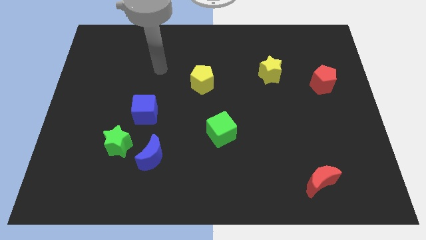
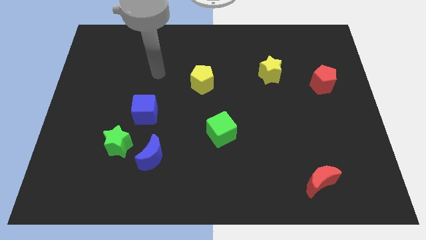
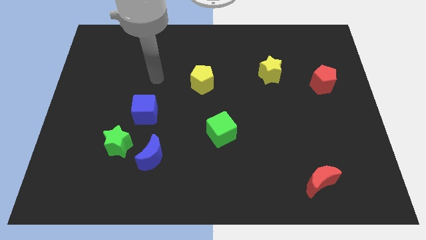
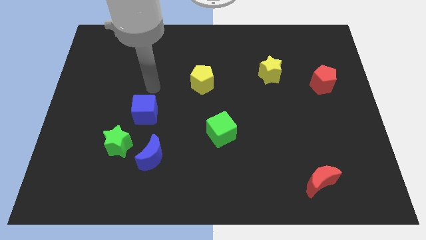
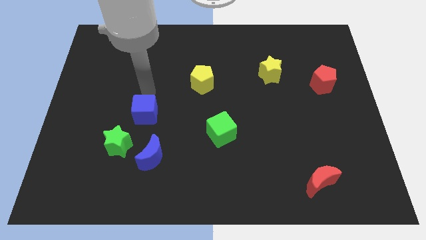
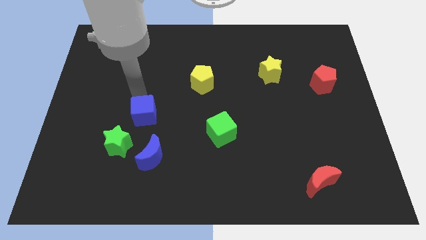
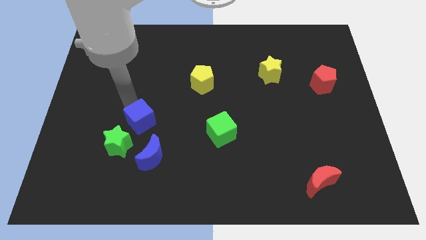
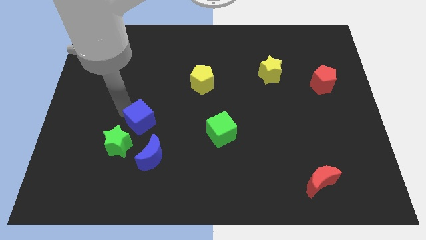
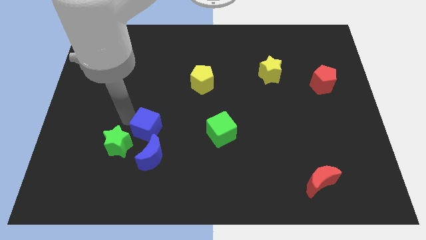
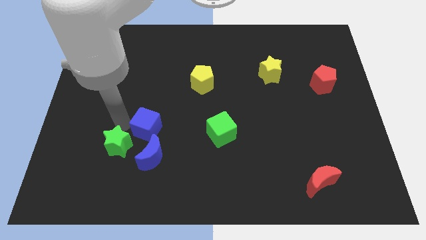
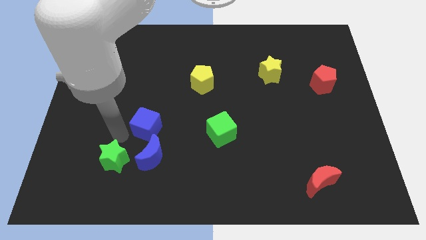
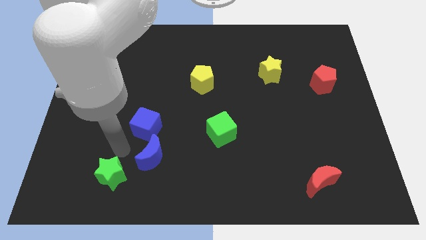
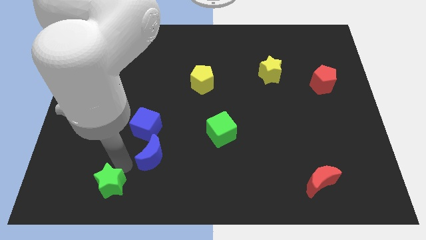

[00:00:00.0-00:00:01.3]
separate the blue moon from the green star

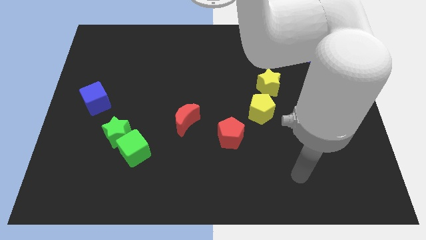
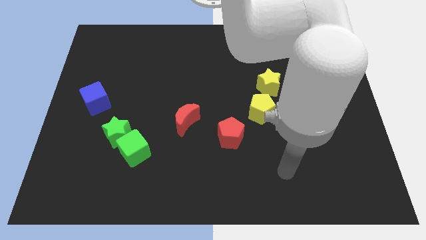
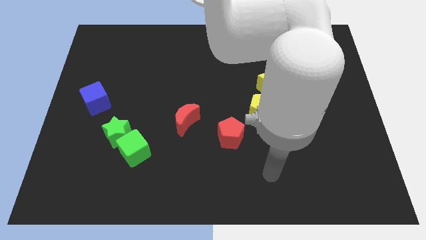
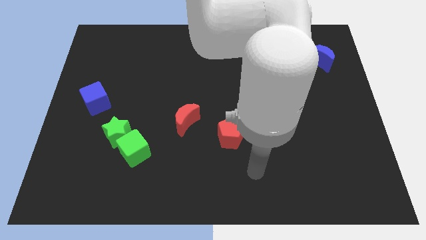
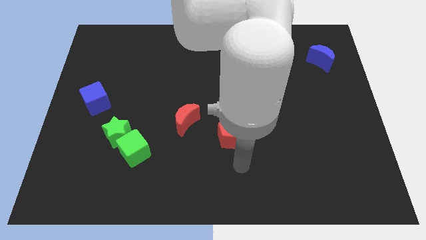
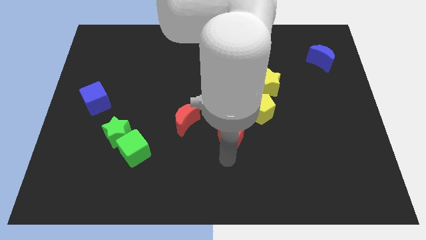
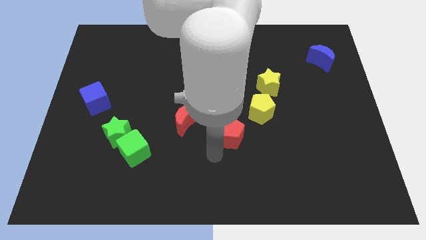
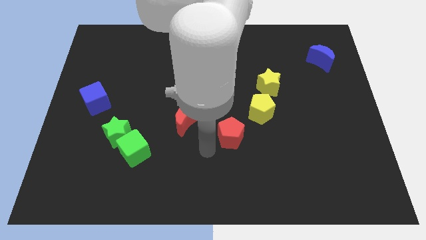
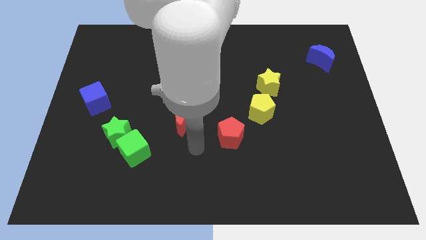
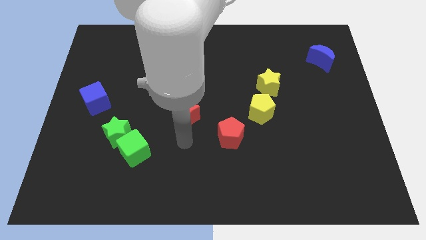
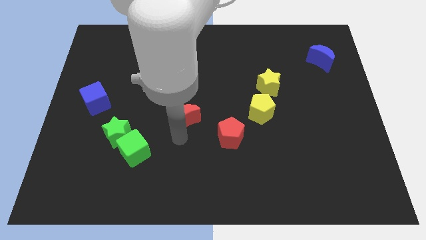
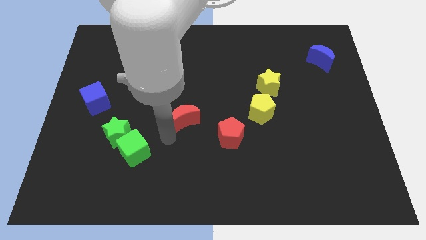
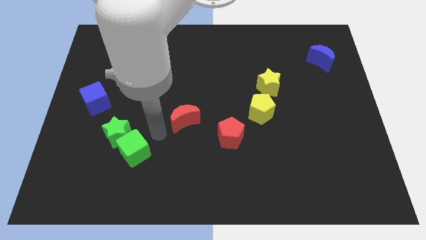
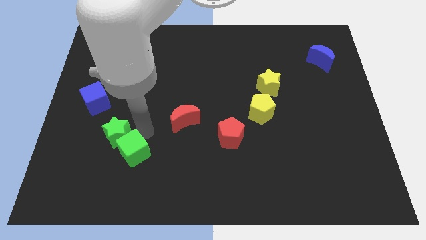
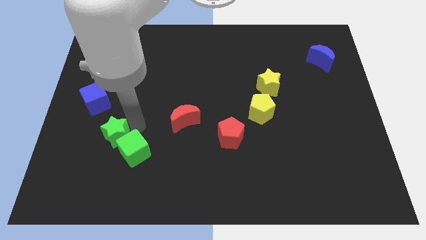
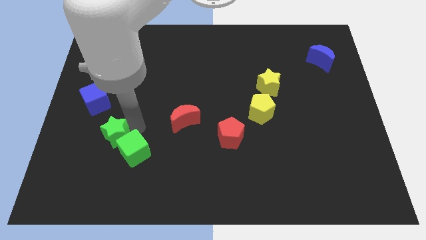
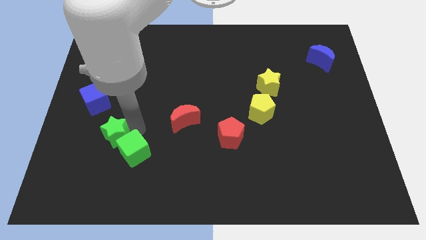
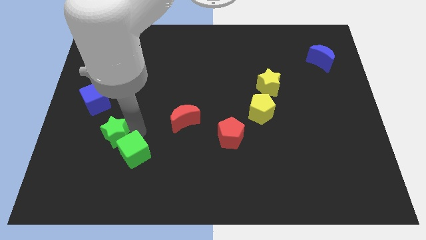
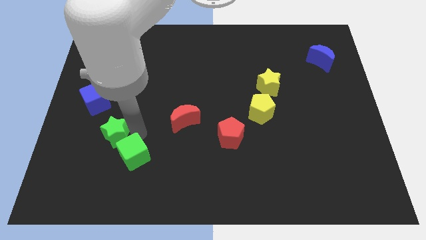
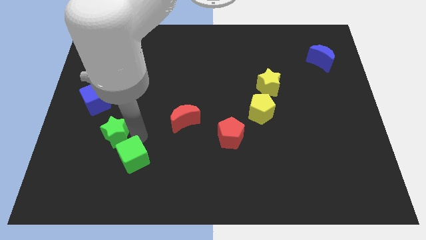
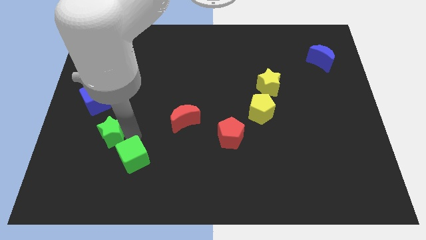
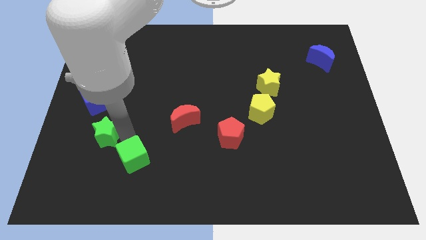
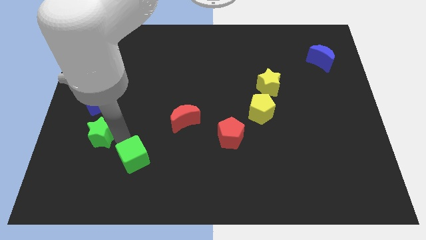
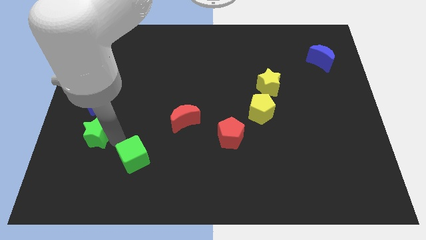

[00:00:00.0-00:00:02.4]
separate the green cube from the green star

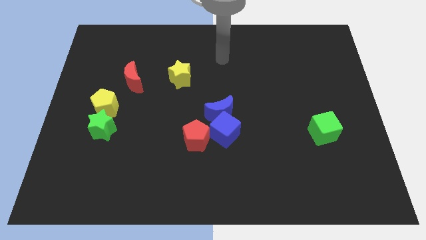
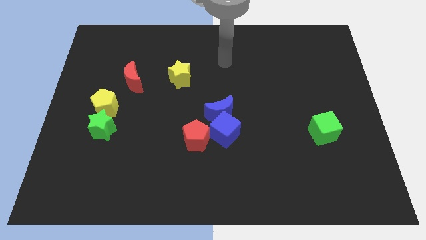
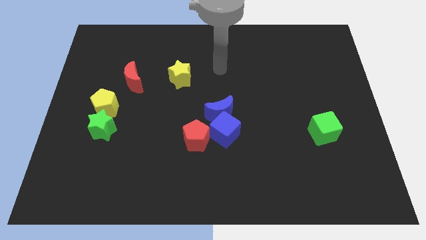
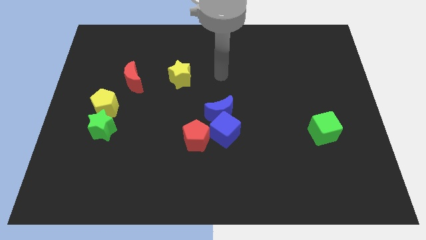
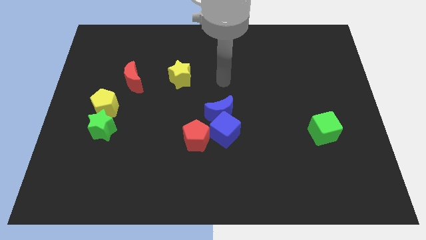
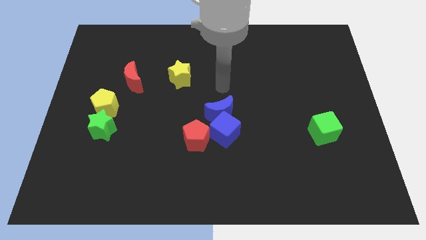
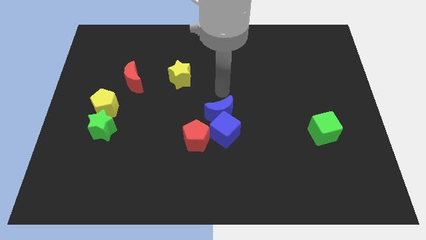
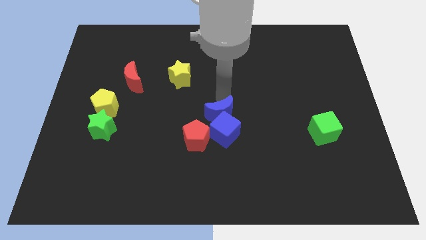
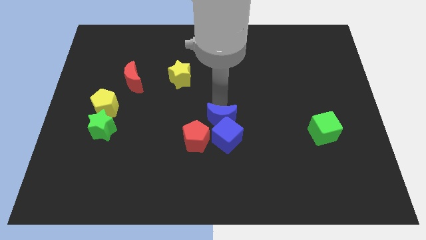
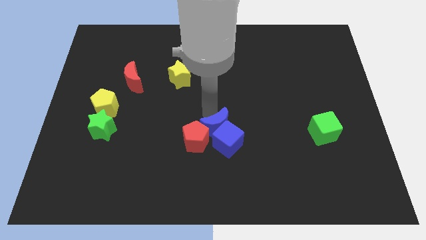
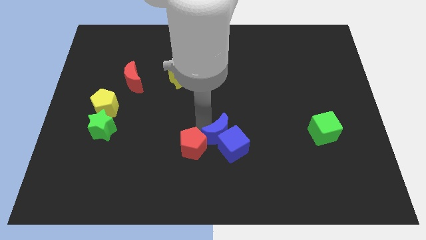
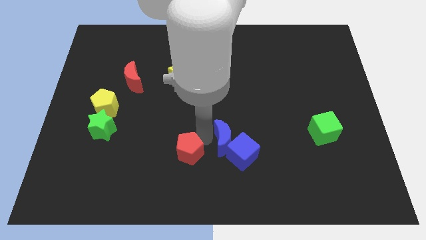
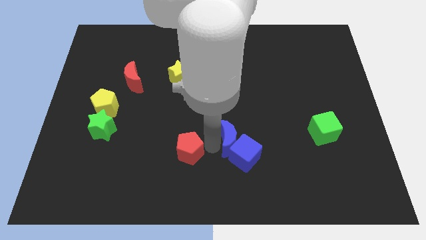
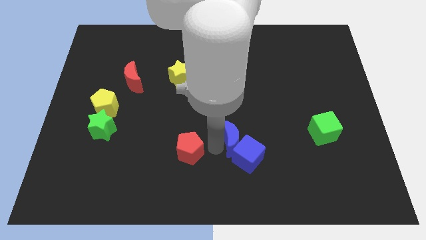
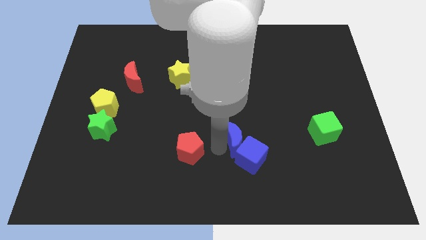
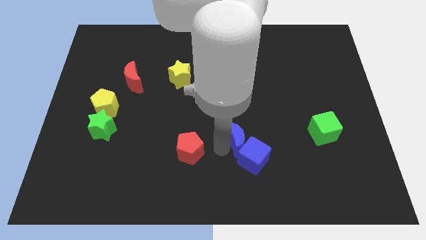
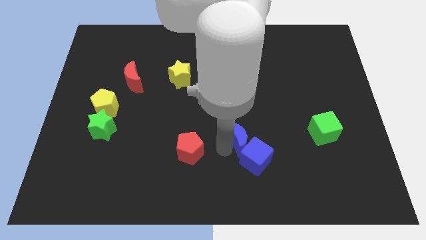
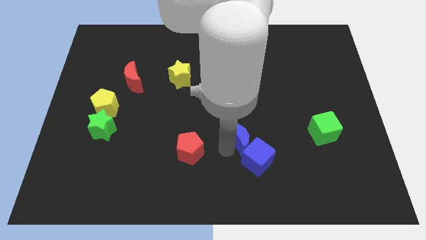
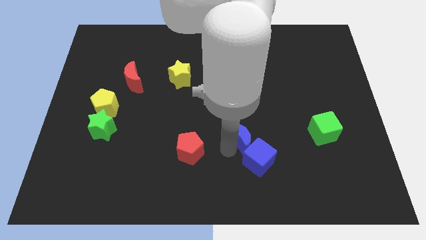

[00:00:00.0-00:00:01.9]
pull the blue cube apart from the blue moon and red pentagon

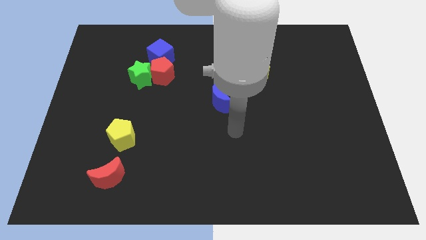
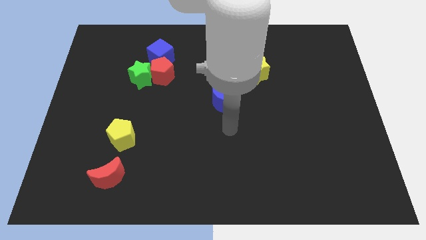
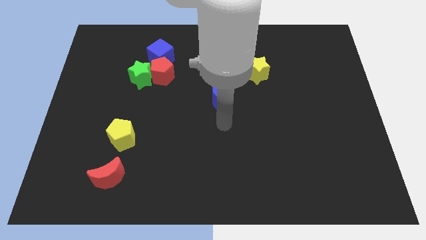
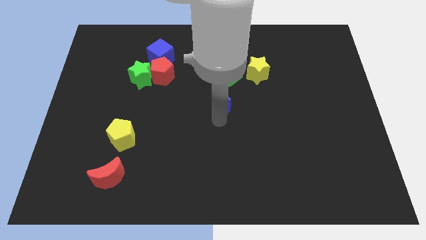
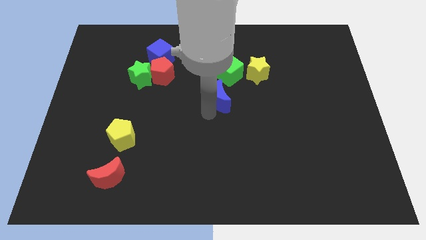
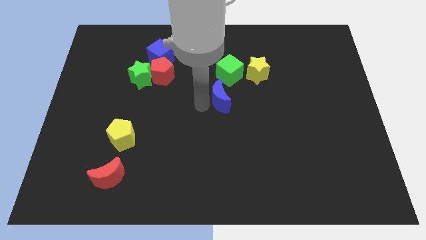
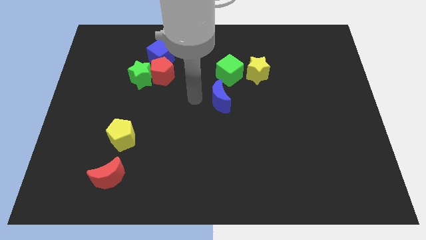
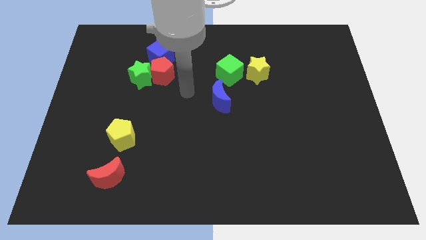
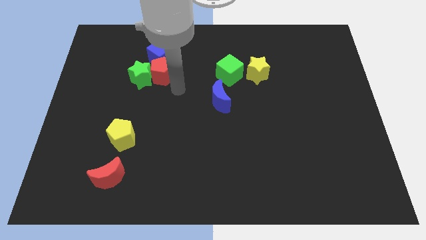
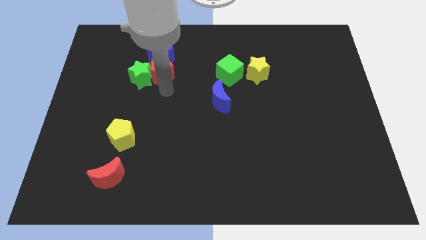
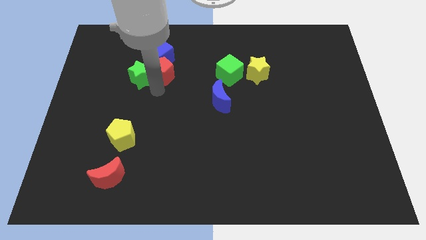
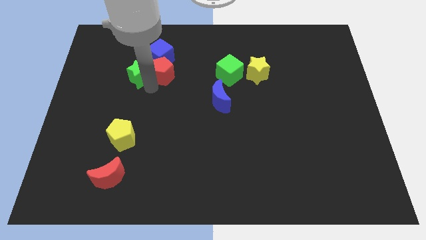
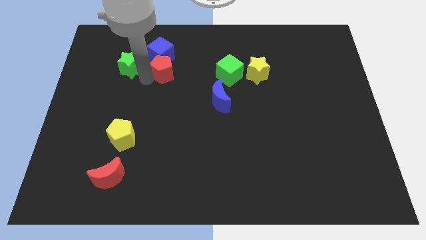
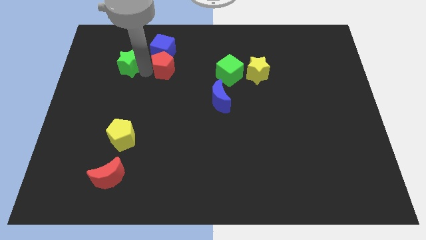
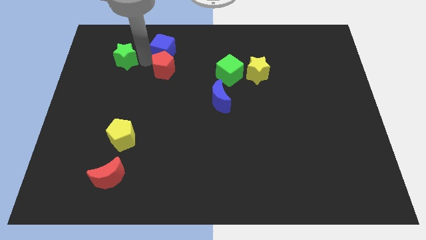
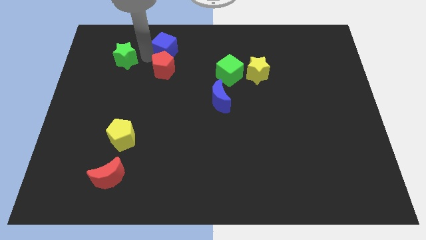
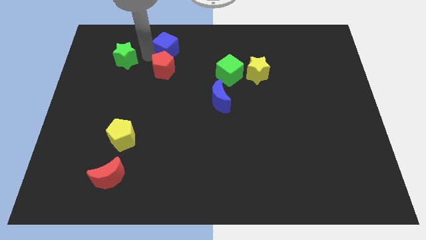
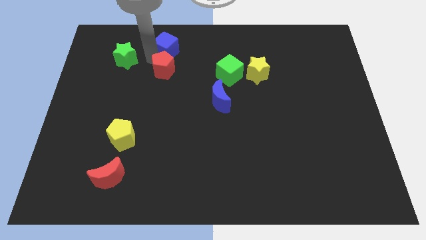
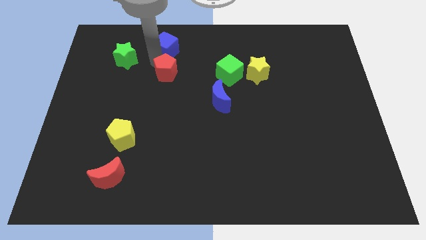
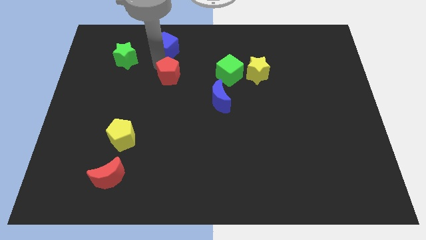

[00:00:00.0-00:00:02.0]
separate the red pentagon from the green star and blue cube

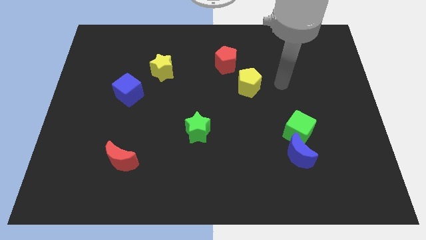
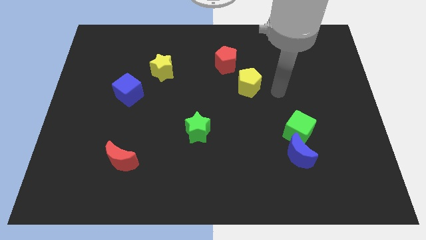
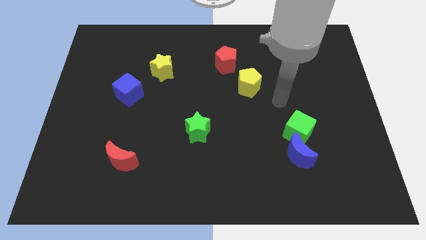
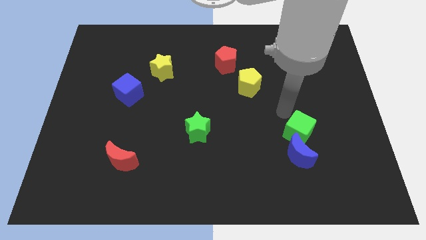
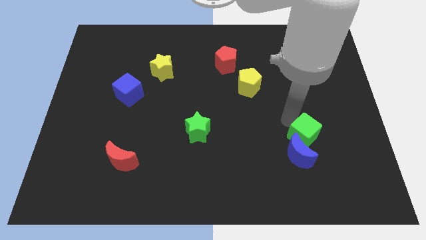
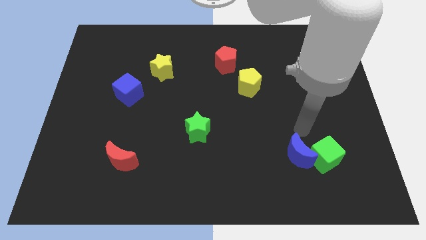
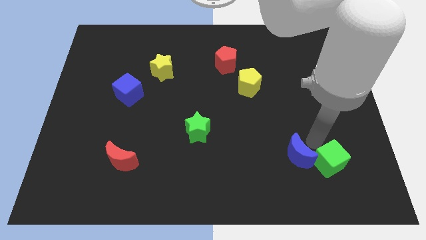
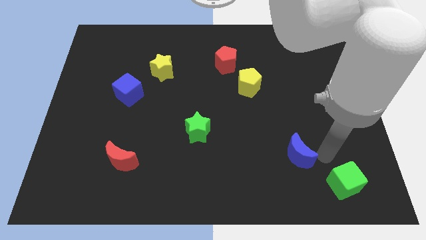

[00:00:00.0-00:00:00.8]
move the blue moon away from the green cube

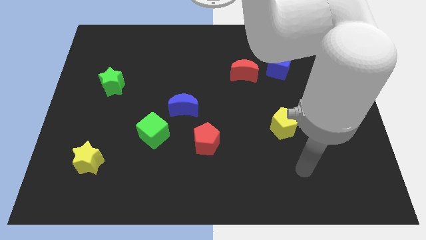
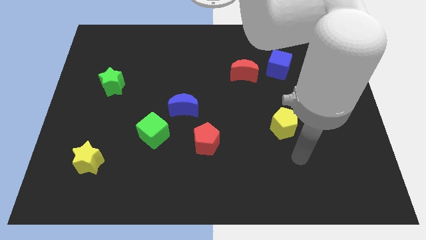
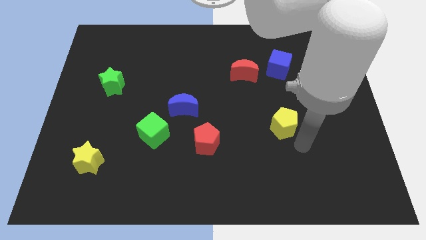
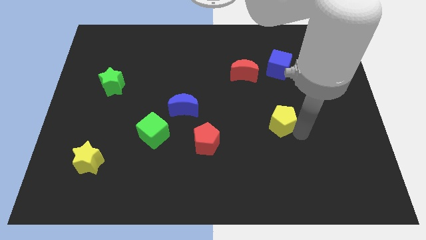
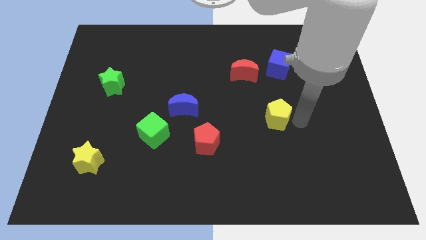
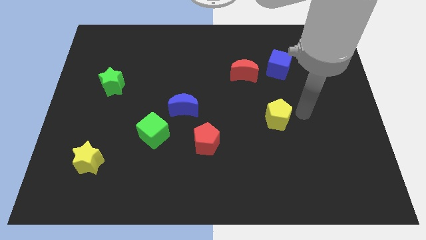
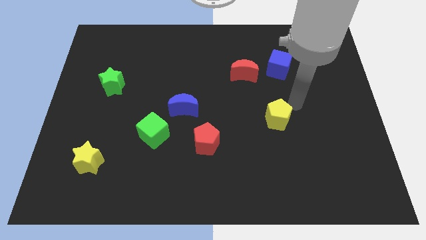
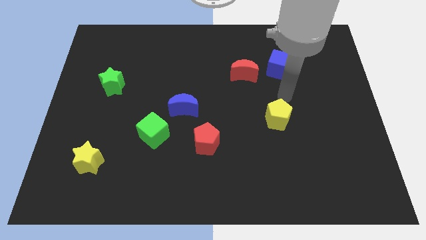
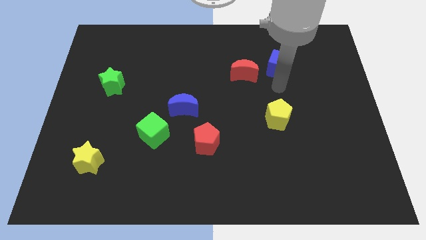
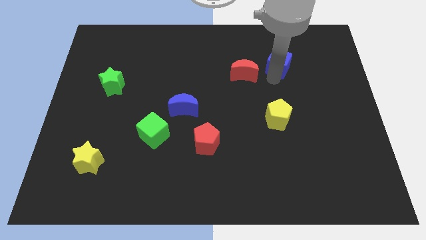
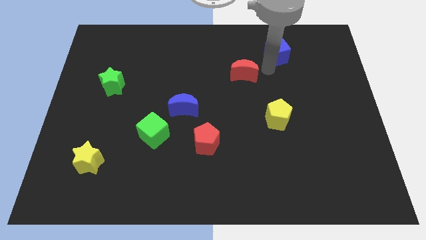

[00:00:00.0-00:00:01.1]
pull the red moon apart from the blue cube
